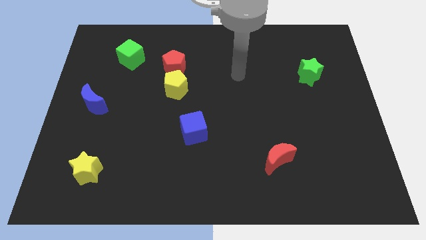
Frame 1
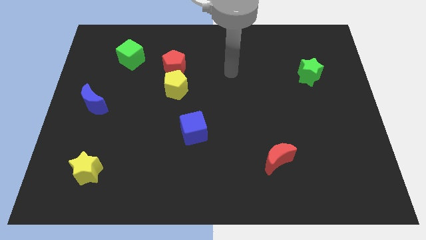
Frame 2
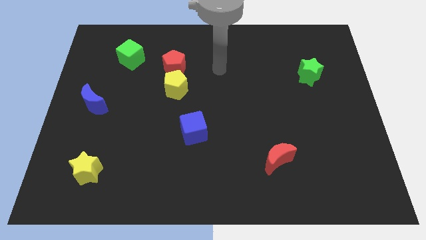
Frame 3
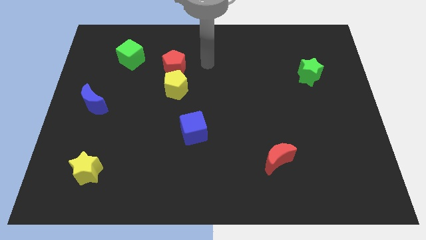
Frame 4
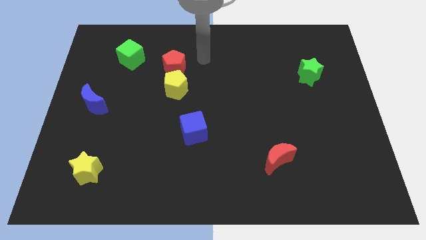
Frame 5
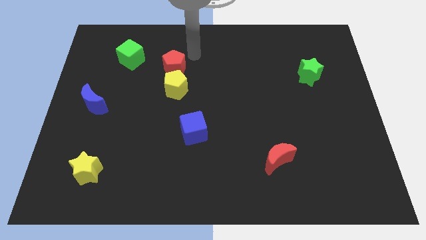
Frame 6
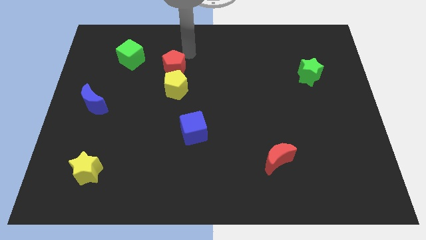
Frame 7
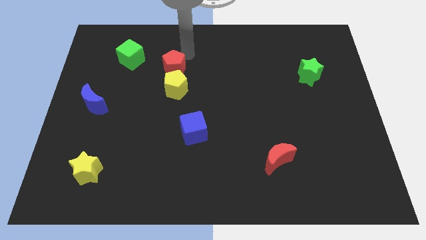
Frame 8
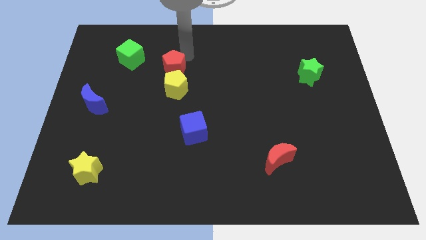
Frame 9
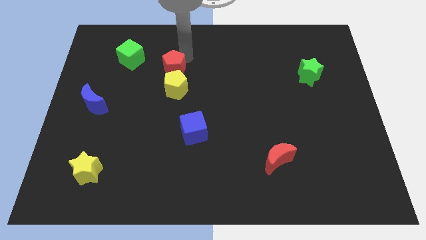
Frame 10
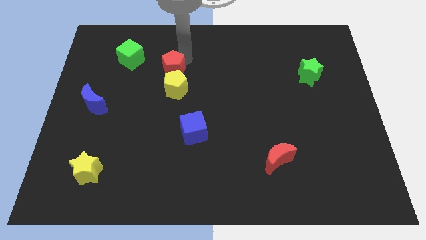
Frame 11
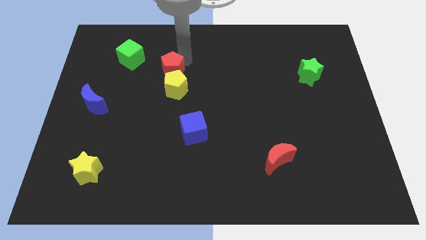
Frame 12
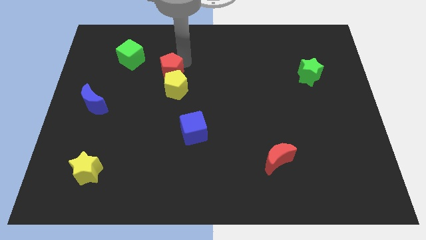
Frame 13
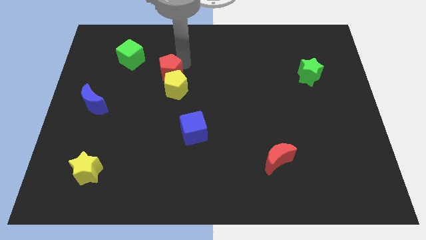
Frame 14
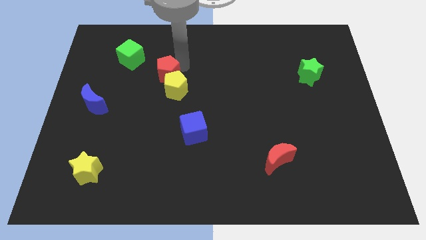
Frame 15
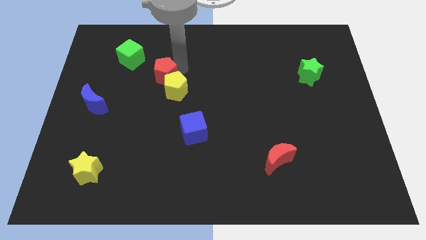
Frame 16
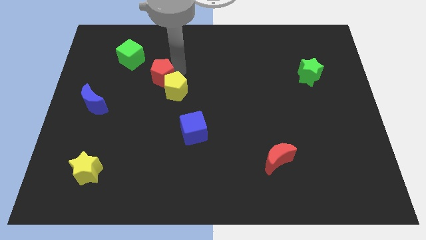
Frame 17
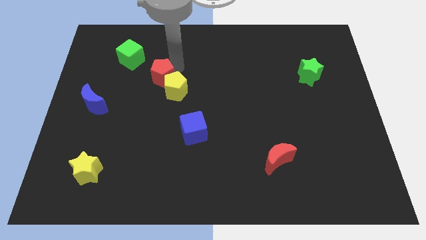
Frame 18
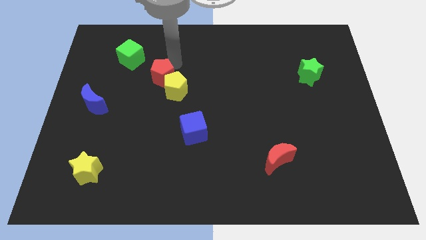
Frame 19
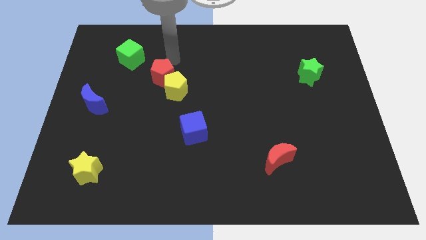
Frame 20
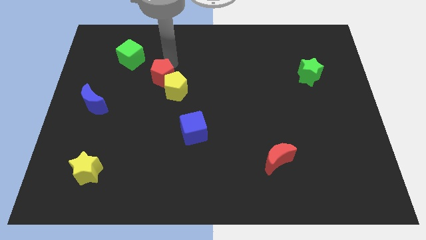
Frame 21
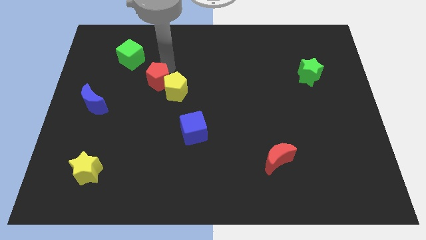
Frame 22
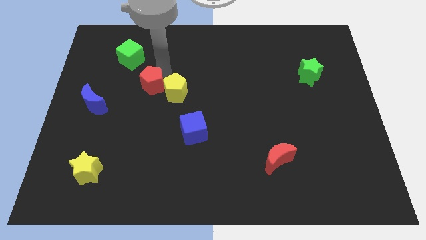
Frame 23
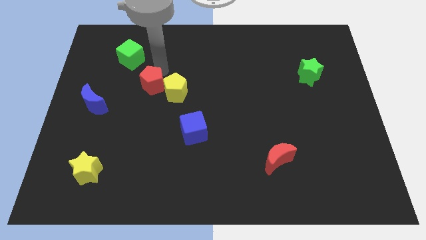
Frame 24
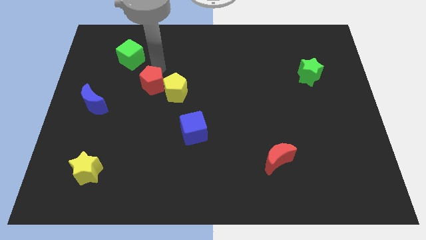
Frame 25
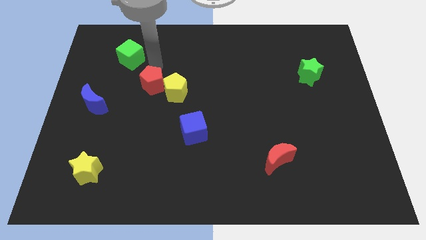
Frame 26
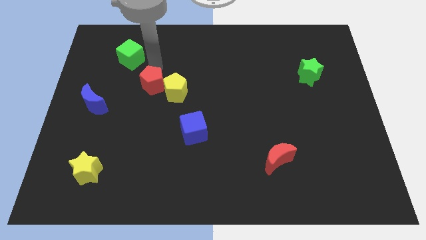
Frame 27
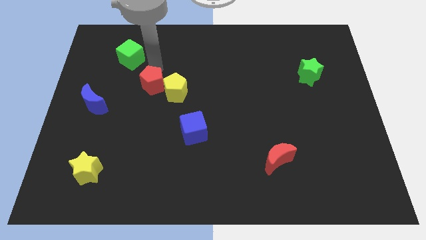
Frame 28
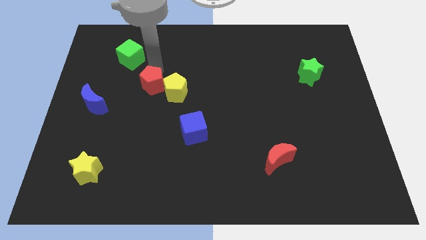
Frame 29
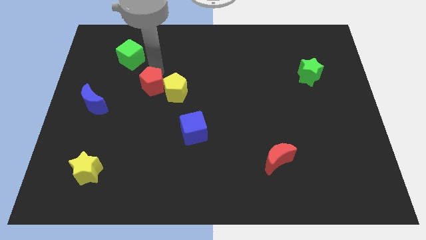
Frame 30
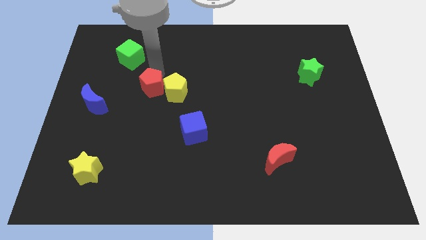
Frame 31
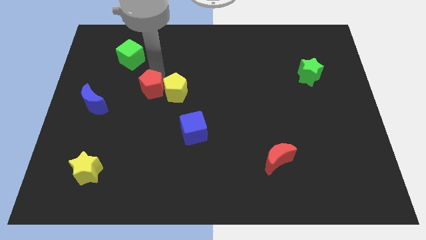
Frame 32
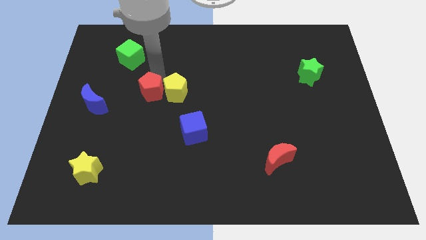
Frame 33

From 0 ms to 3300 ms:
slide the red pentagon down a little bit

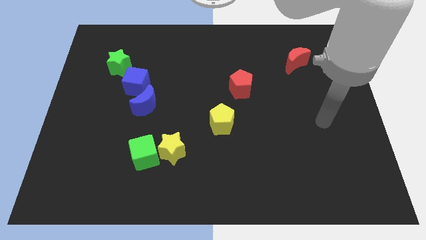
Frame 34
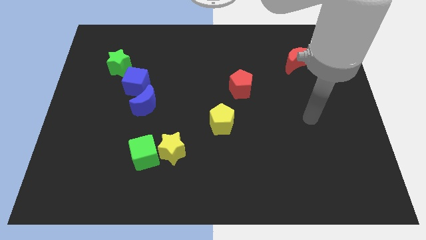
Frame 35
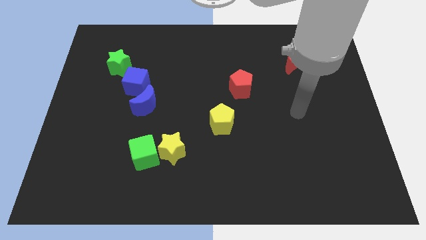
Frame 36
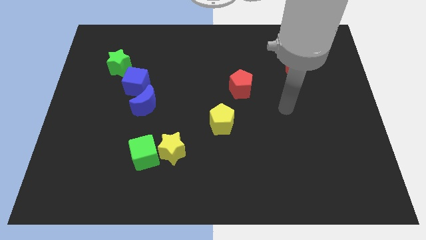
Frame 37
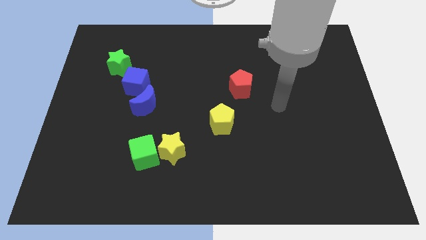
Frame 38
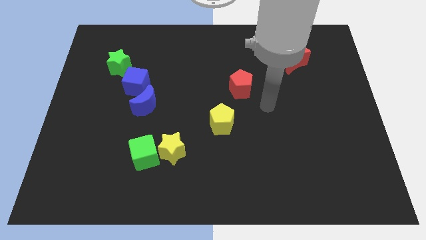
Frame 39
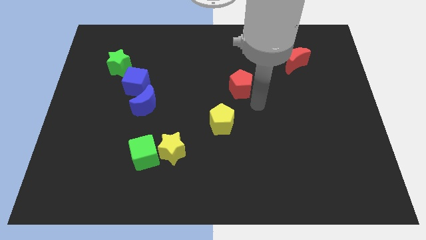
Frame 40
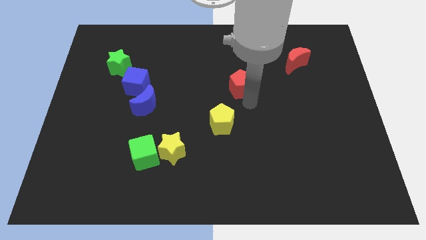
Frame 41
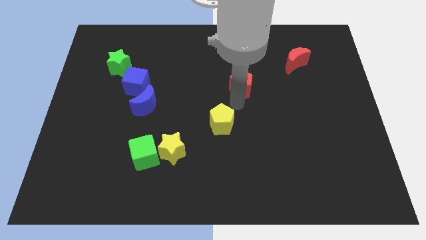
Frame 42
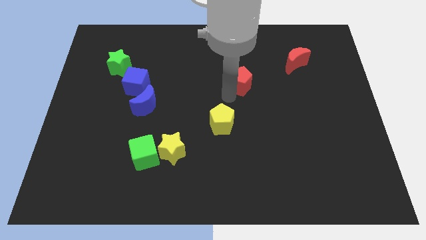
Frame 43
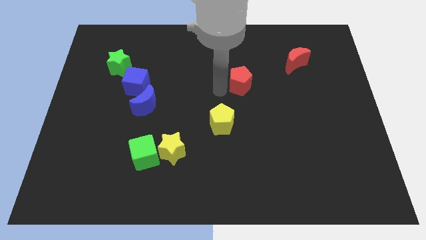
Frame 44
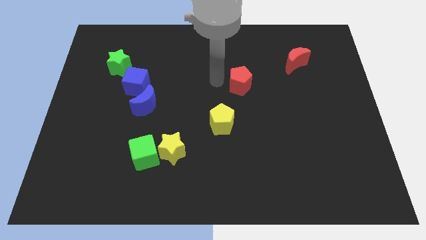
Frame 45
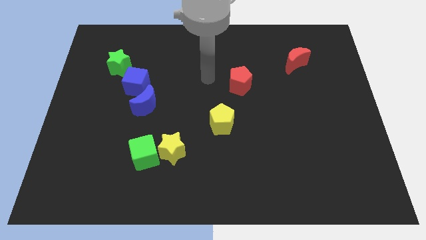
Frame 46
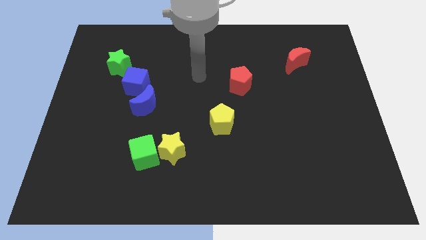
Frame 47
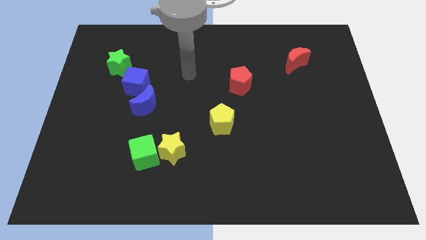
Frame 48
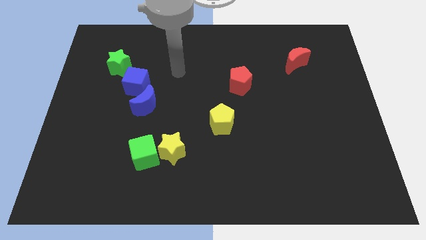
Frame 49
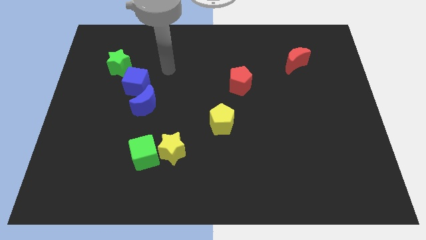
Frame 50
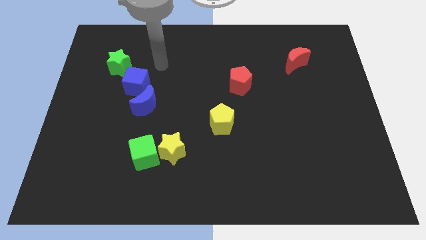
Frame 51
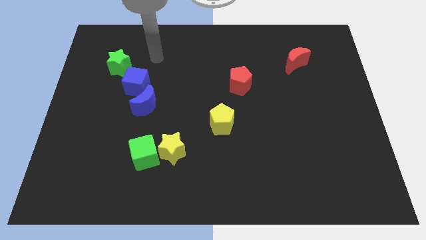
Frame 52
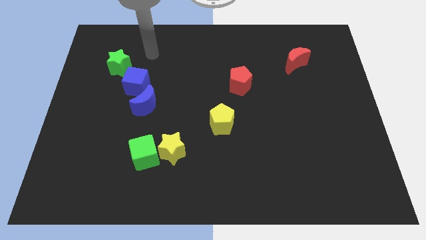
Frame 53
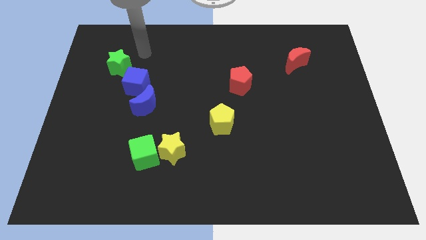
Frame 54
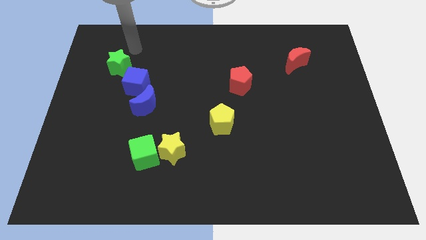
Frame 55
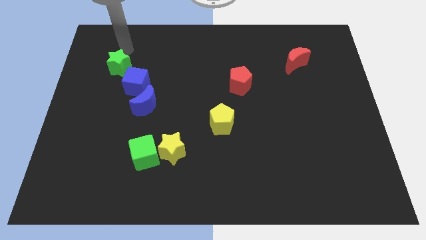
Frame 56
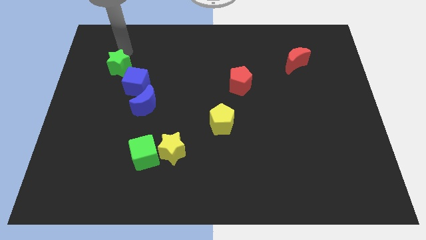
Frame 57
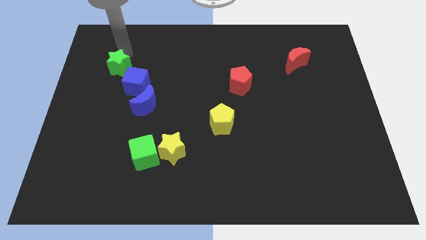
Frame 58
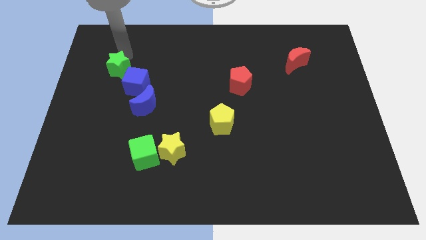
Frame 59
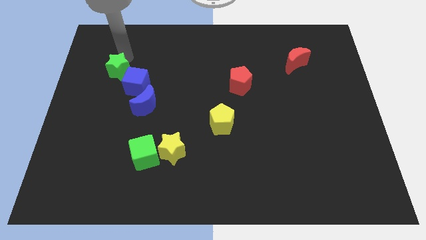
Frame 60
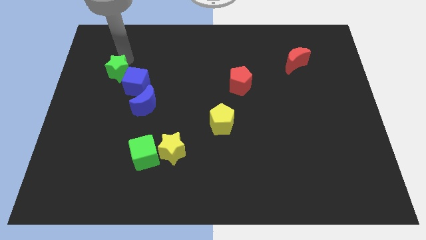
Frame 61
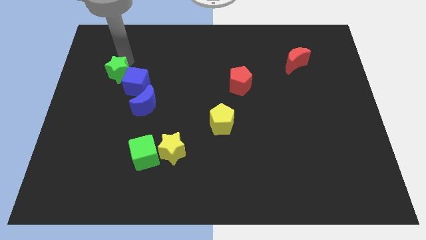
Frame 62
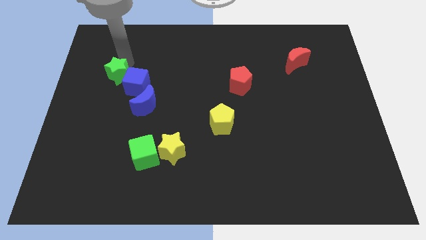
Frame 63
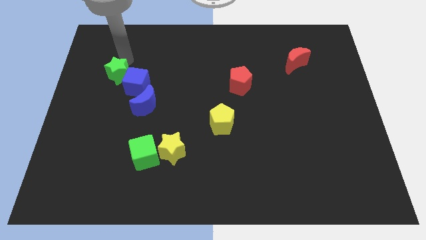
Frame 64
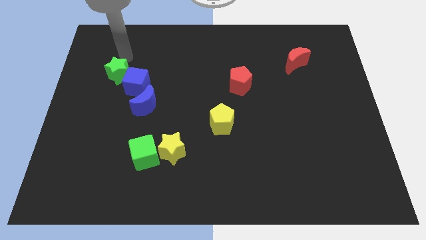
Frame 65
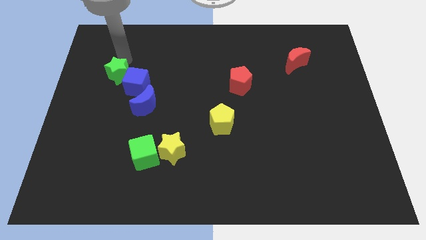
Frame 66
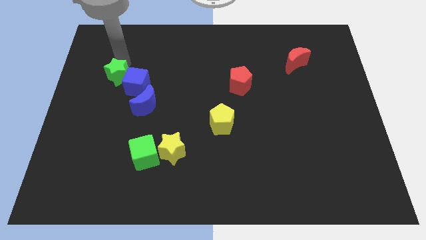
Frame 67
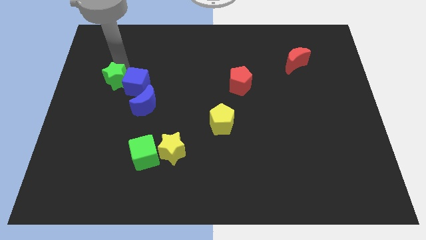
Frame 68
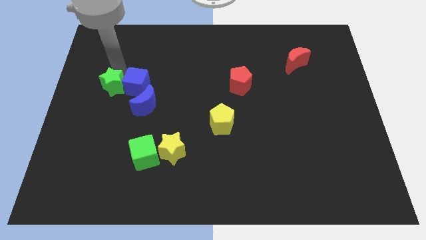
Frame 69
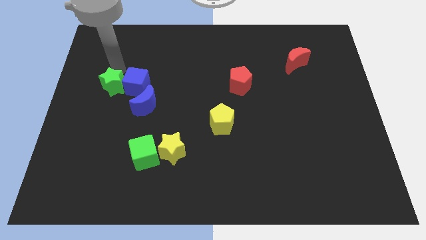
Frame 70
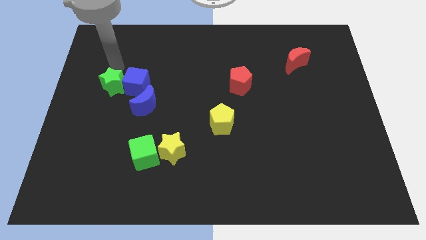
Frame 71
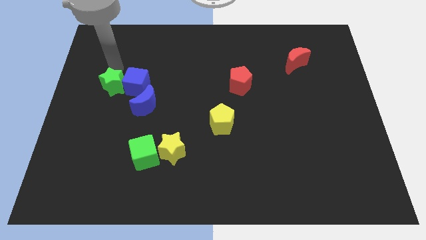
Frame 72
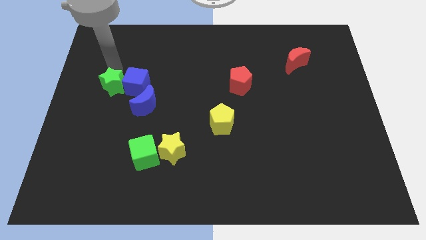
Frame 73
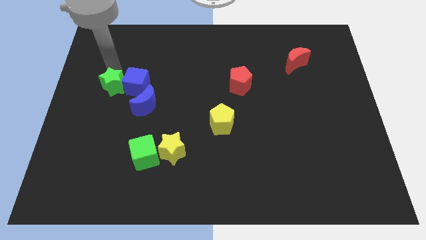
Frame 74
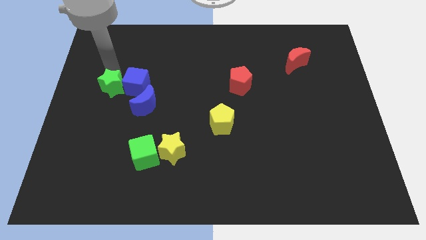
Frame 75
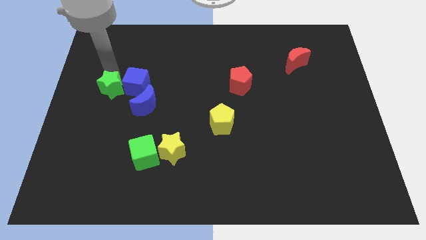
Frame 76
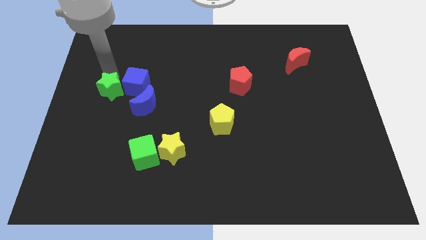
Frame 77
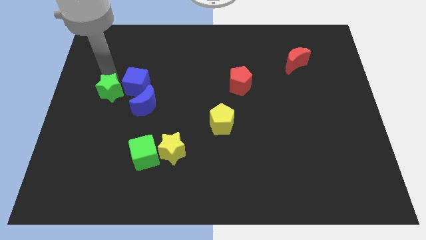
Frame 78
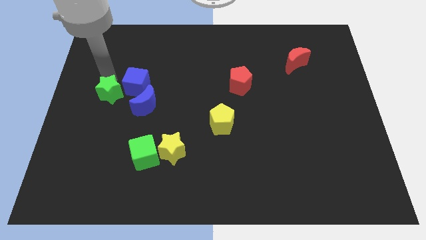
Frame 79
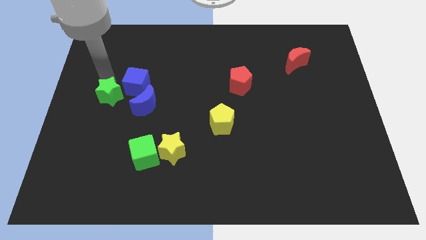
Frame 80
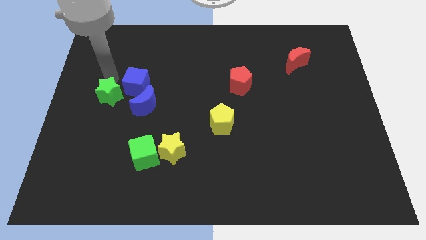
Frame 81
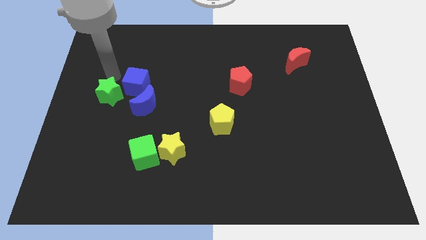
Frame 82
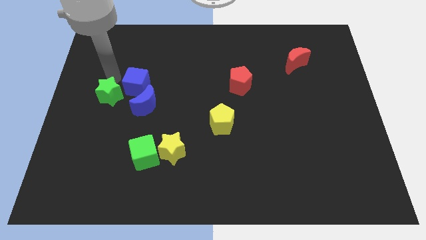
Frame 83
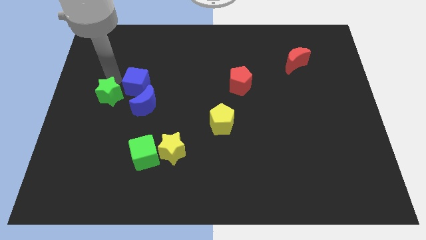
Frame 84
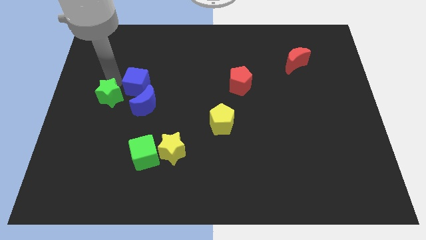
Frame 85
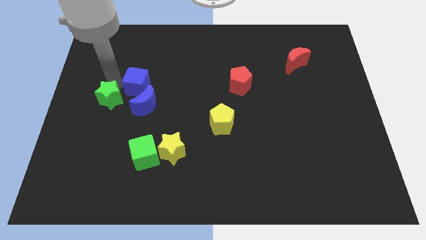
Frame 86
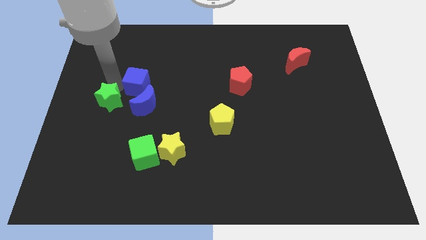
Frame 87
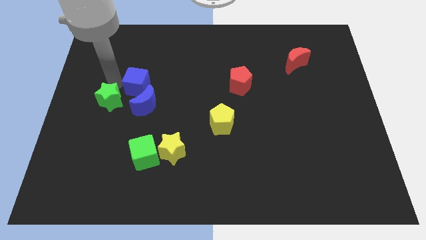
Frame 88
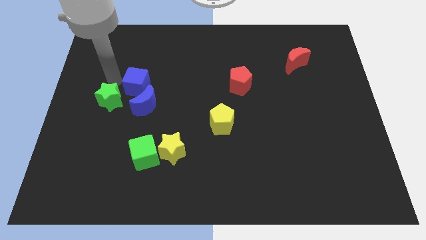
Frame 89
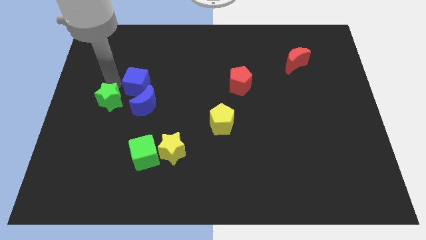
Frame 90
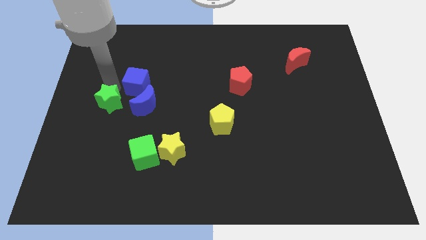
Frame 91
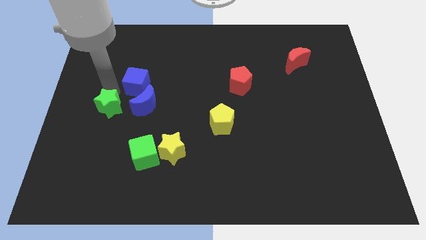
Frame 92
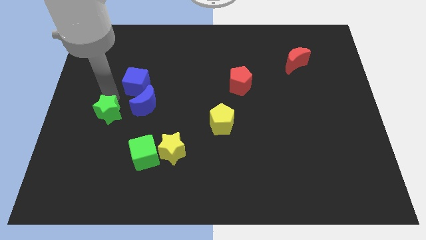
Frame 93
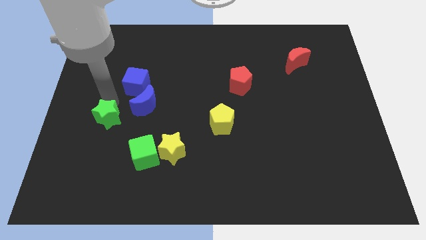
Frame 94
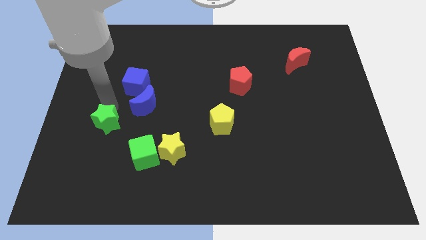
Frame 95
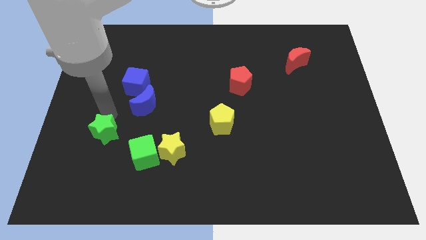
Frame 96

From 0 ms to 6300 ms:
slide the green star down
